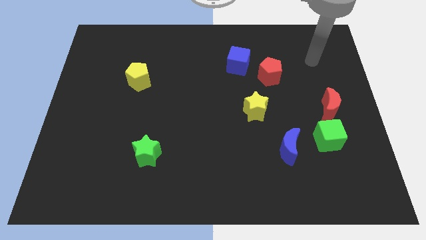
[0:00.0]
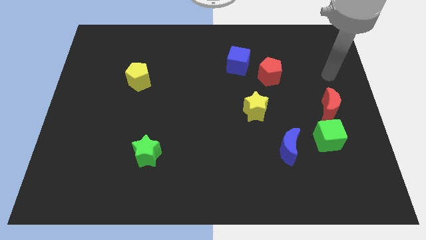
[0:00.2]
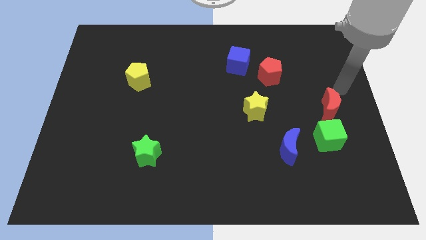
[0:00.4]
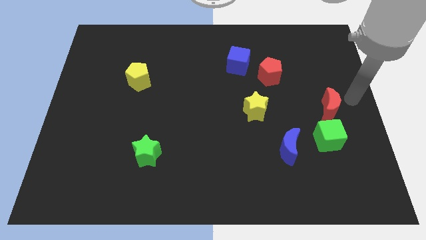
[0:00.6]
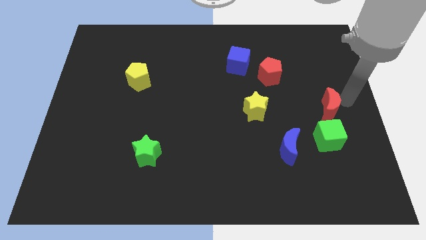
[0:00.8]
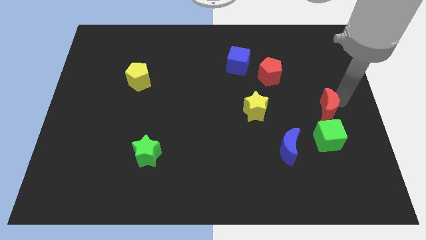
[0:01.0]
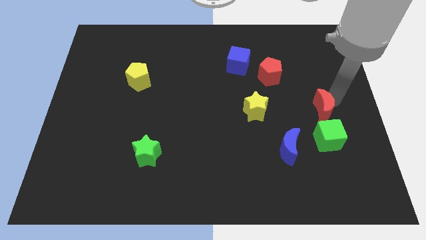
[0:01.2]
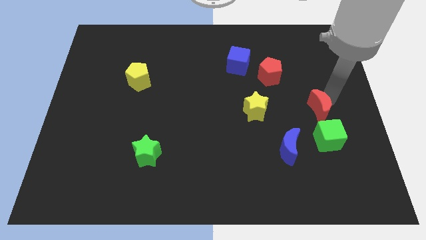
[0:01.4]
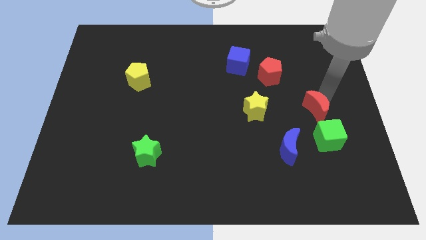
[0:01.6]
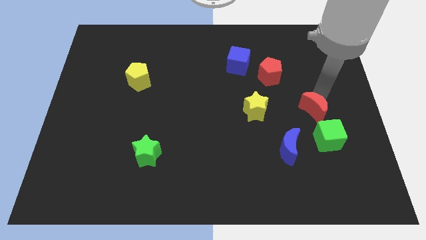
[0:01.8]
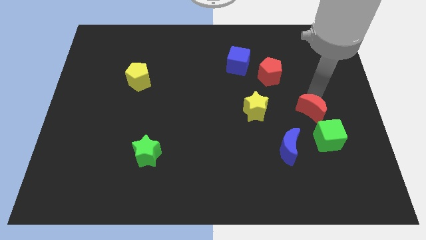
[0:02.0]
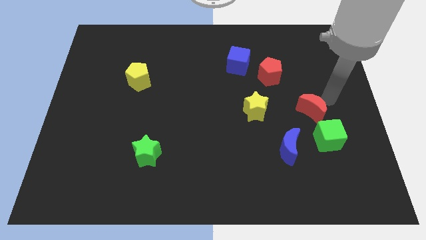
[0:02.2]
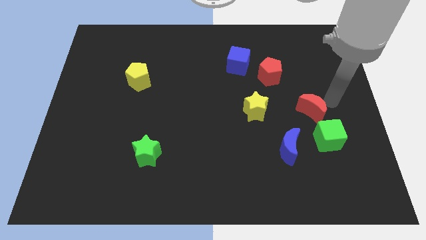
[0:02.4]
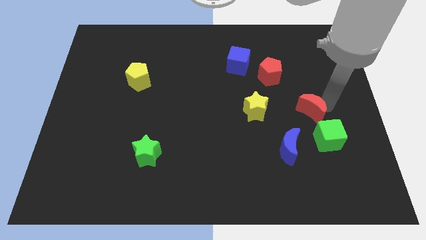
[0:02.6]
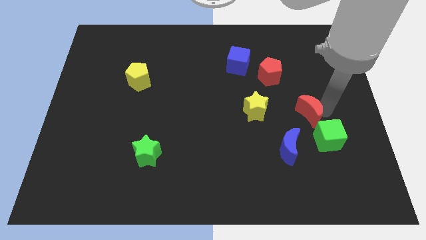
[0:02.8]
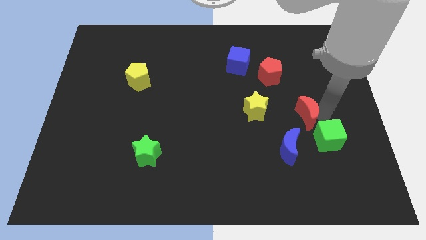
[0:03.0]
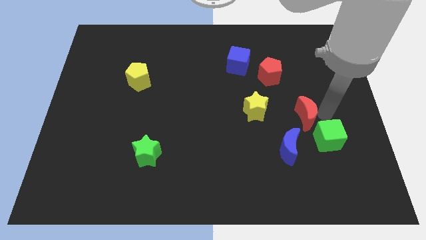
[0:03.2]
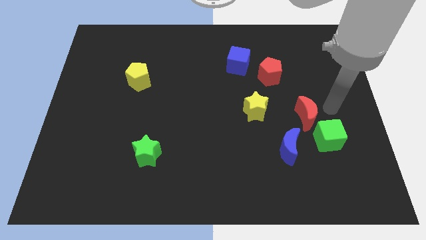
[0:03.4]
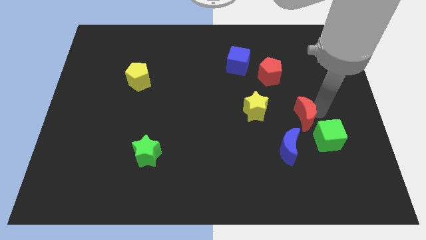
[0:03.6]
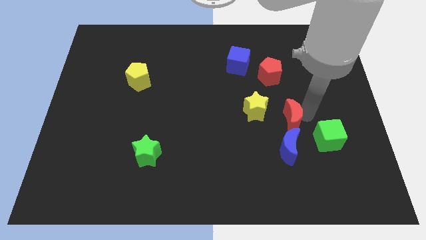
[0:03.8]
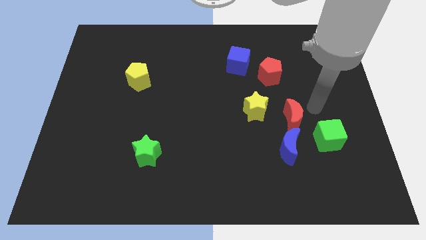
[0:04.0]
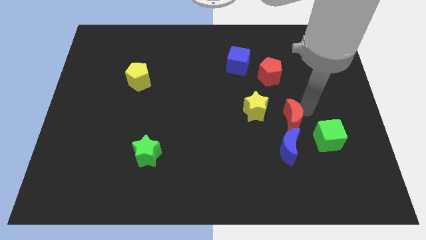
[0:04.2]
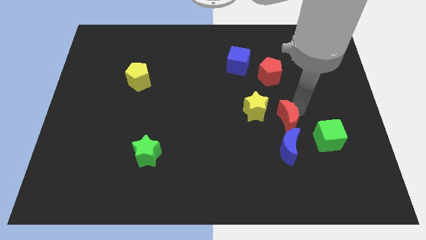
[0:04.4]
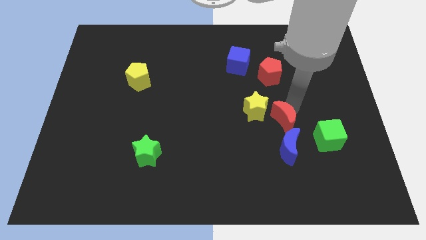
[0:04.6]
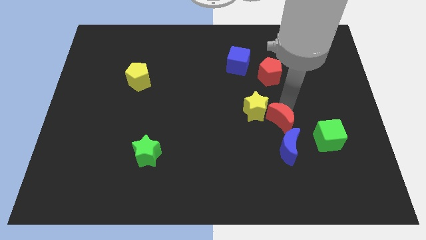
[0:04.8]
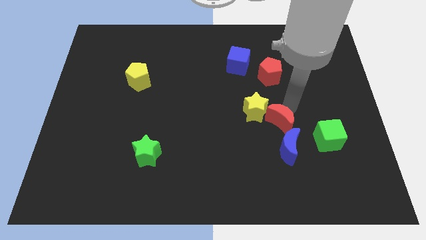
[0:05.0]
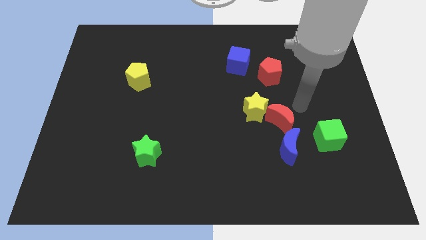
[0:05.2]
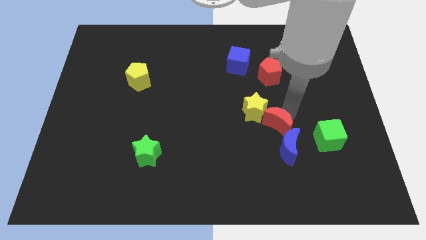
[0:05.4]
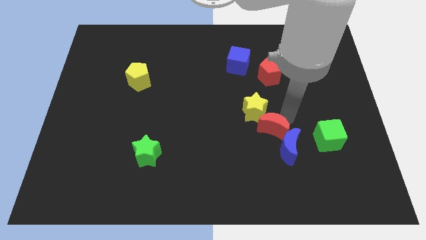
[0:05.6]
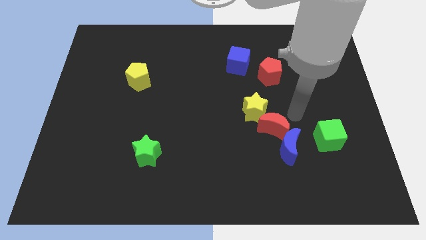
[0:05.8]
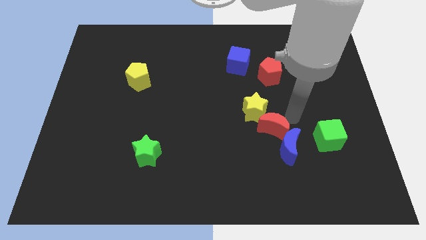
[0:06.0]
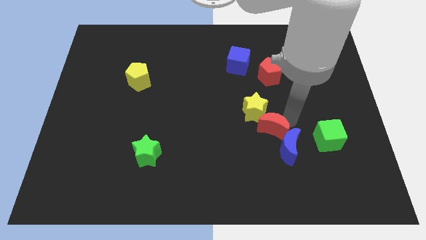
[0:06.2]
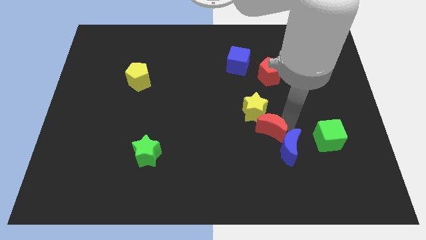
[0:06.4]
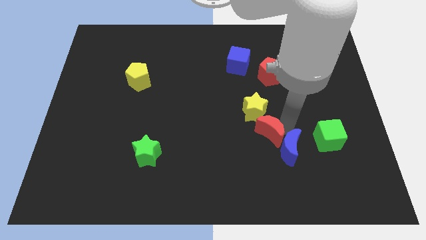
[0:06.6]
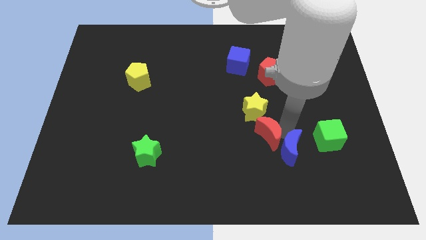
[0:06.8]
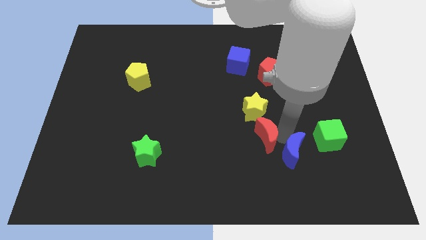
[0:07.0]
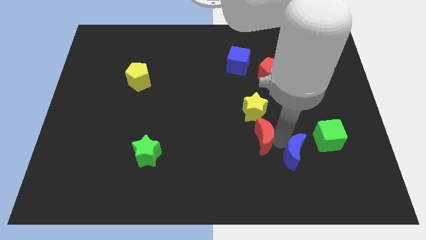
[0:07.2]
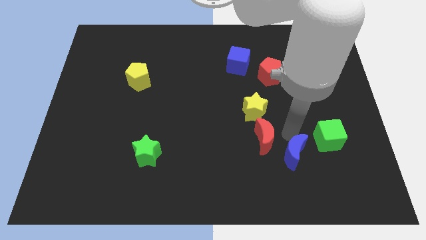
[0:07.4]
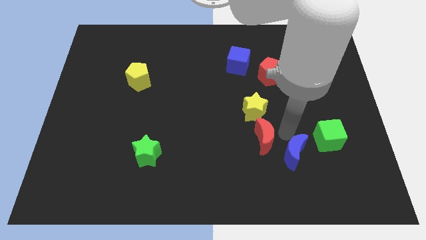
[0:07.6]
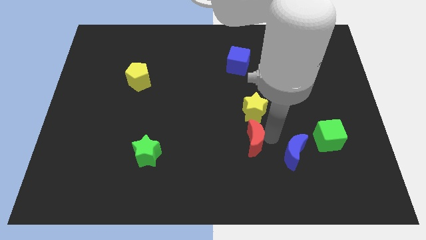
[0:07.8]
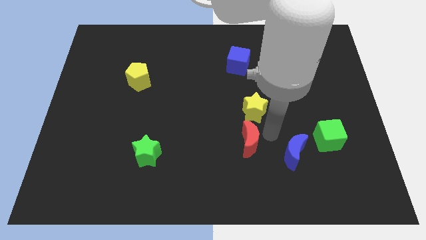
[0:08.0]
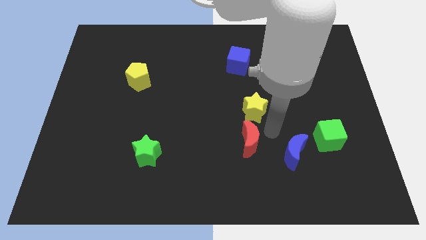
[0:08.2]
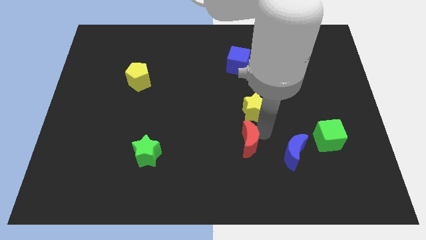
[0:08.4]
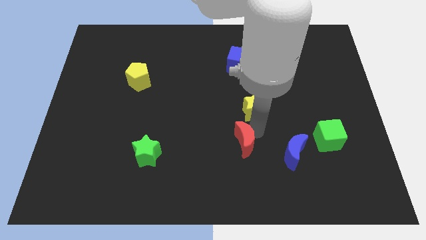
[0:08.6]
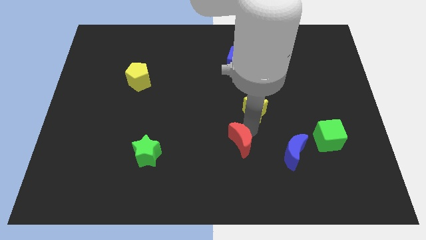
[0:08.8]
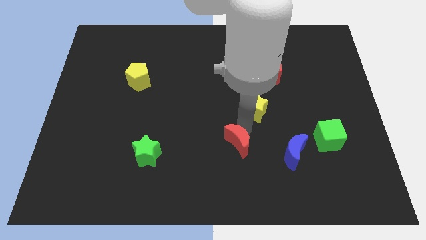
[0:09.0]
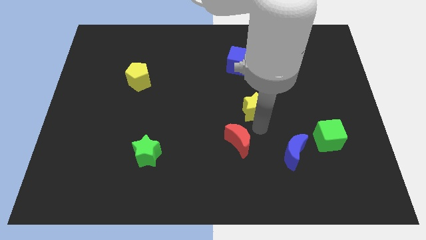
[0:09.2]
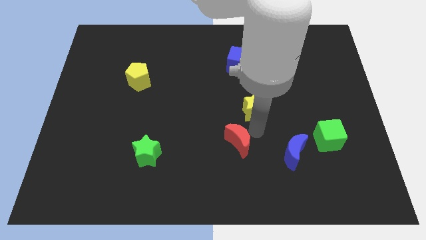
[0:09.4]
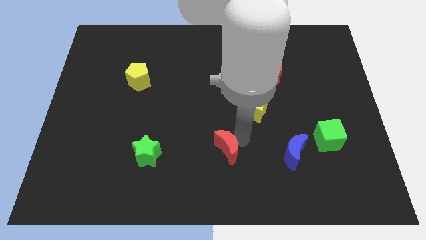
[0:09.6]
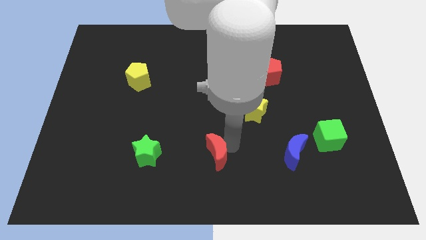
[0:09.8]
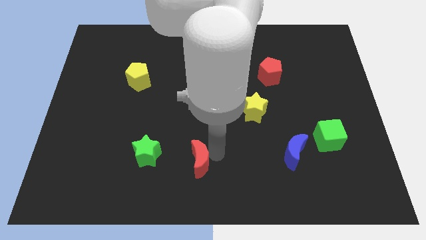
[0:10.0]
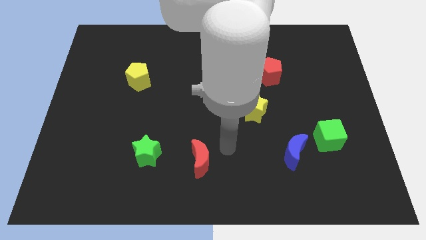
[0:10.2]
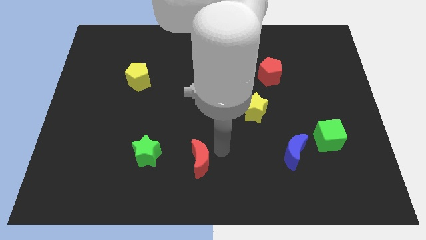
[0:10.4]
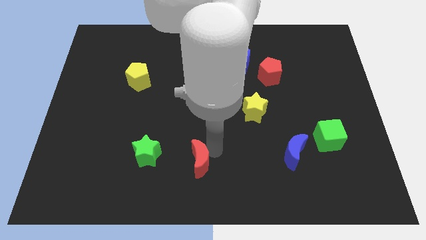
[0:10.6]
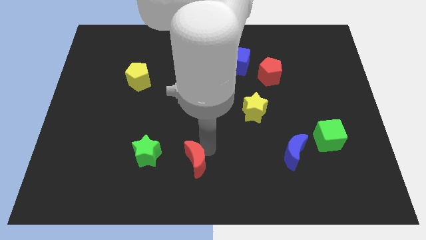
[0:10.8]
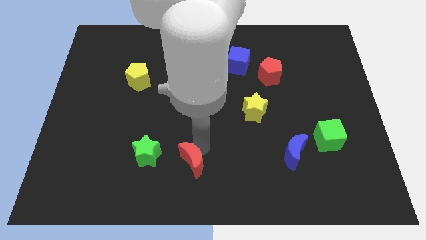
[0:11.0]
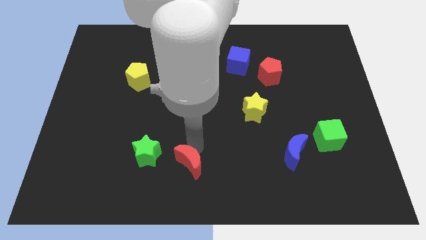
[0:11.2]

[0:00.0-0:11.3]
put the red moon to the bottom right side of the green star

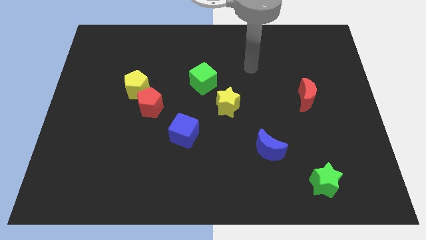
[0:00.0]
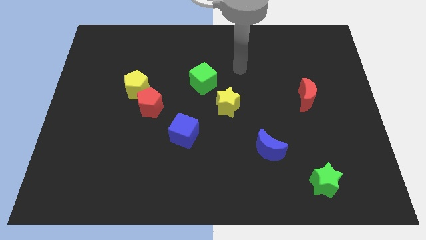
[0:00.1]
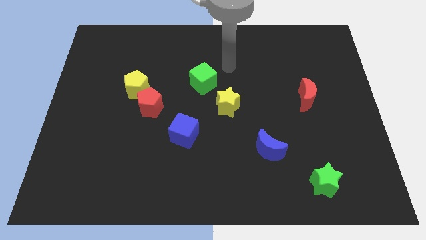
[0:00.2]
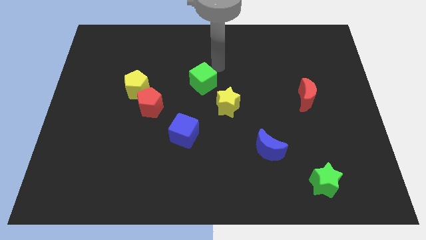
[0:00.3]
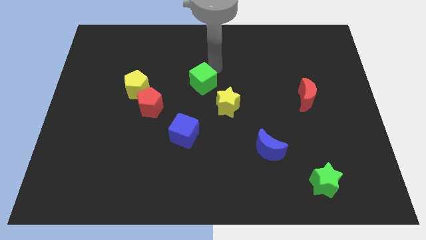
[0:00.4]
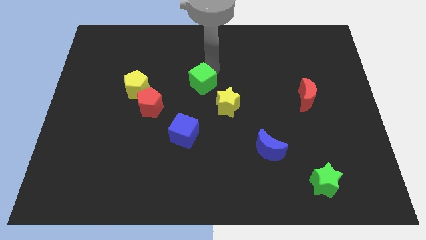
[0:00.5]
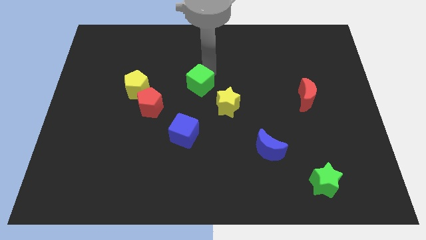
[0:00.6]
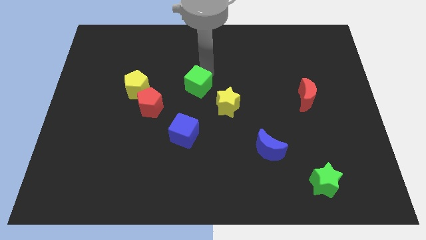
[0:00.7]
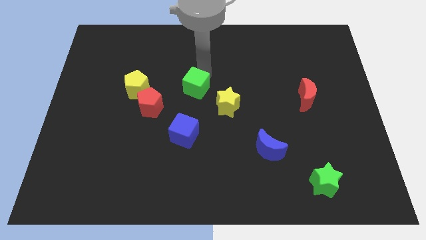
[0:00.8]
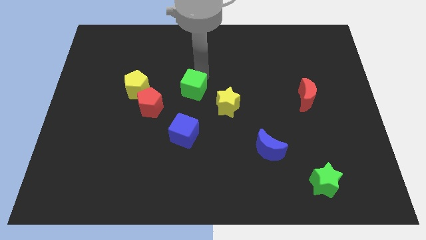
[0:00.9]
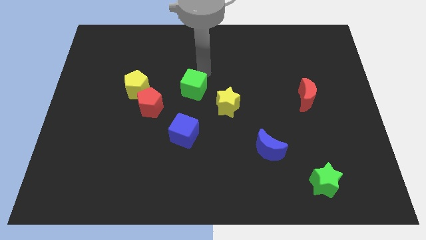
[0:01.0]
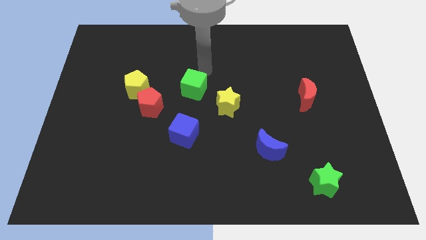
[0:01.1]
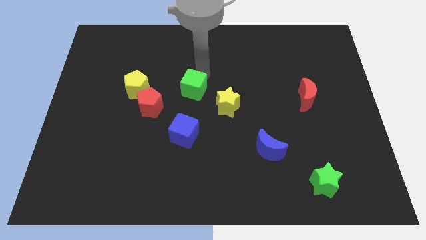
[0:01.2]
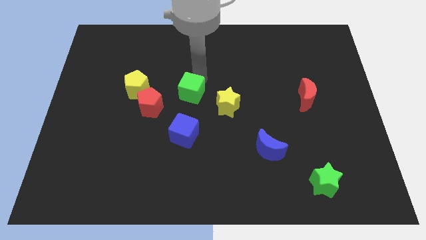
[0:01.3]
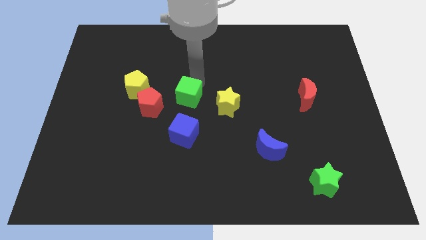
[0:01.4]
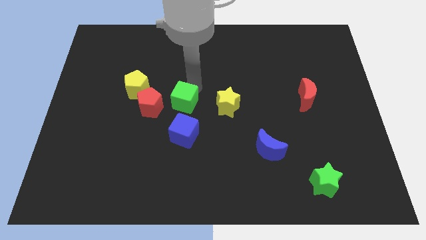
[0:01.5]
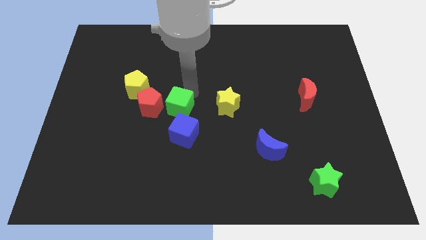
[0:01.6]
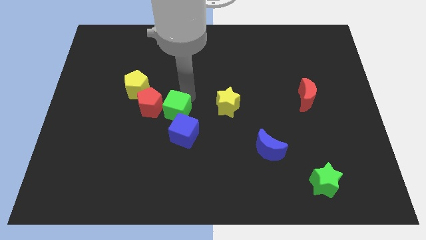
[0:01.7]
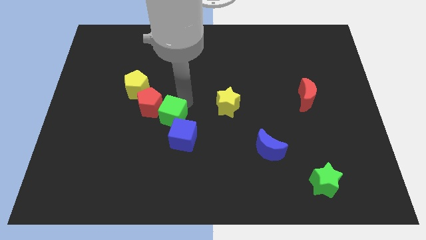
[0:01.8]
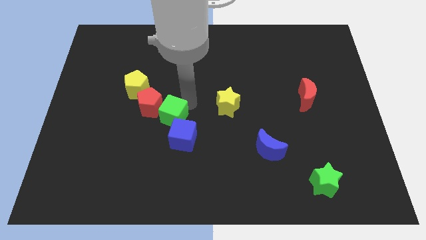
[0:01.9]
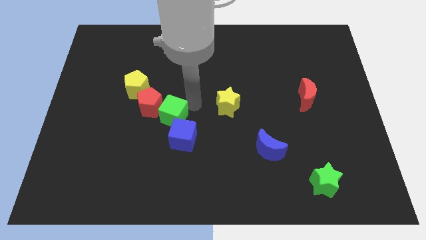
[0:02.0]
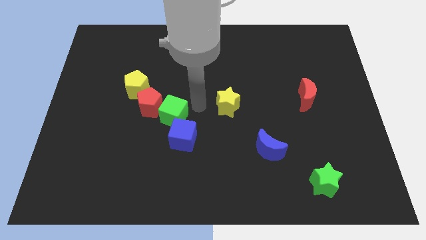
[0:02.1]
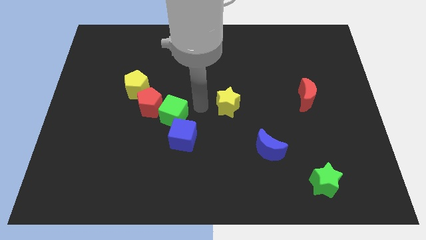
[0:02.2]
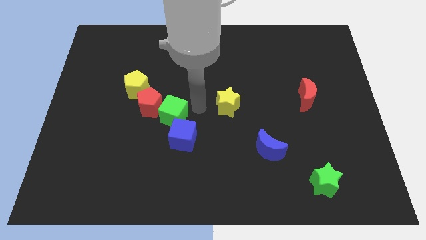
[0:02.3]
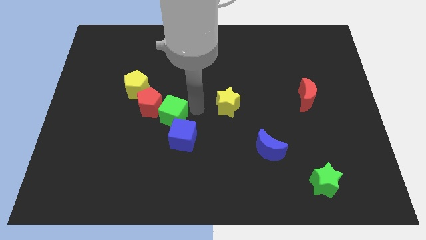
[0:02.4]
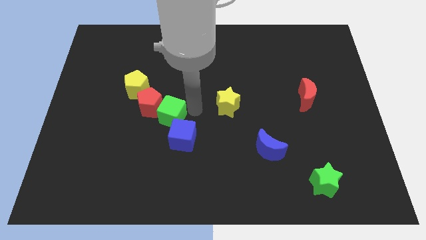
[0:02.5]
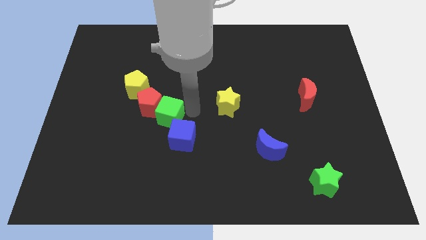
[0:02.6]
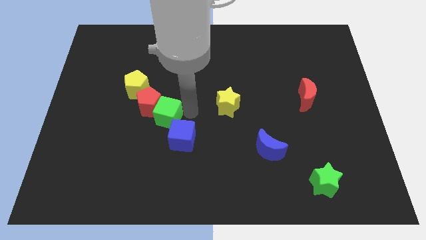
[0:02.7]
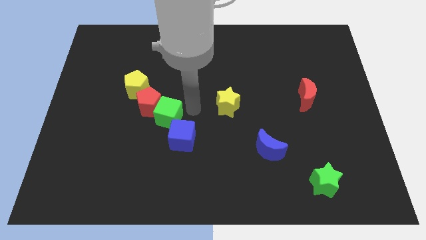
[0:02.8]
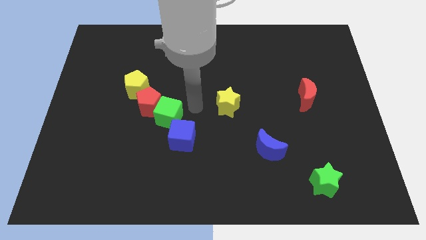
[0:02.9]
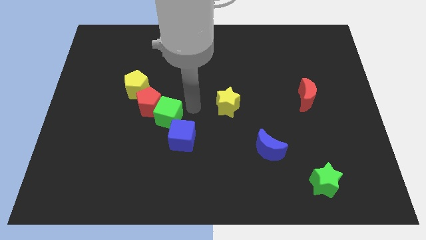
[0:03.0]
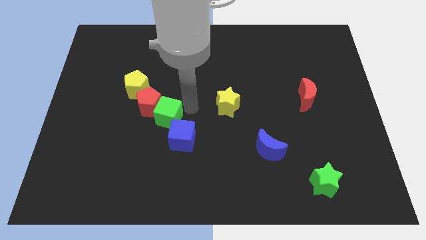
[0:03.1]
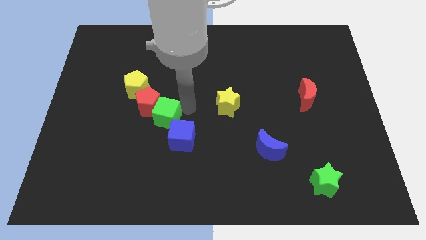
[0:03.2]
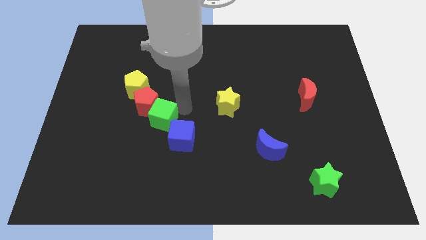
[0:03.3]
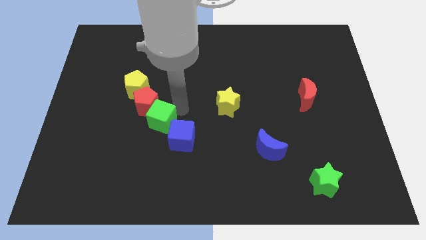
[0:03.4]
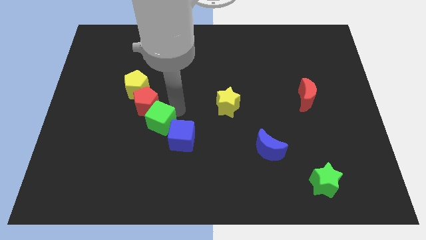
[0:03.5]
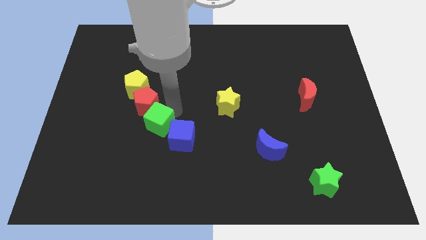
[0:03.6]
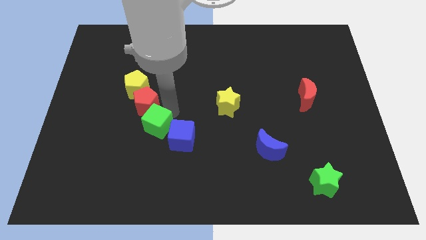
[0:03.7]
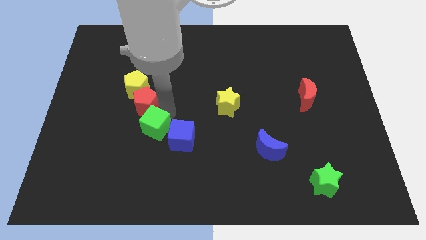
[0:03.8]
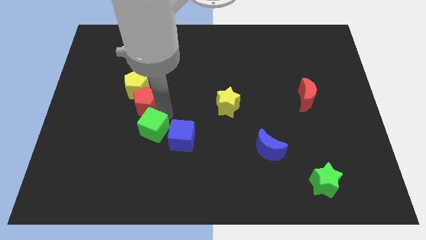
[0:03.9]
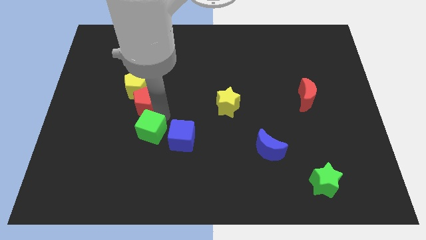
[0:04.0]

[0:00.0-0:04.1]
push the green cube to the bottom side of the yellow pentagon
